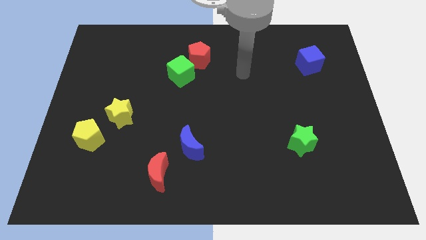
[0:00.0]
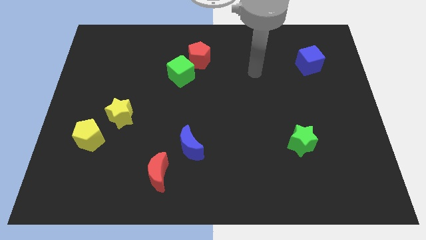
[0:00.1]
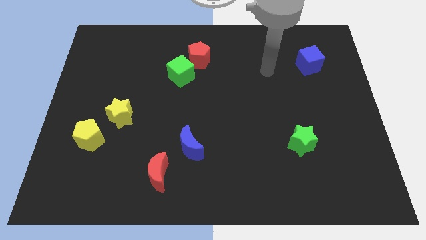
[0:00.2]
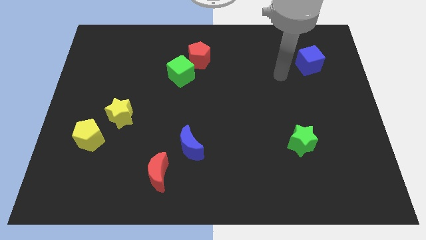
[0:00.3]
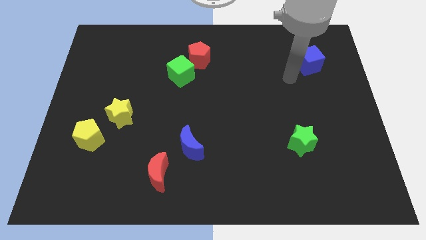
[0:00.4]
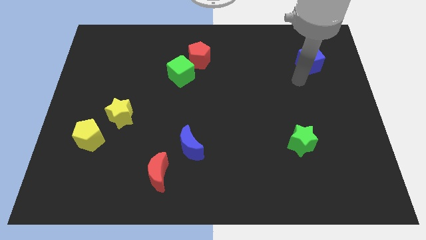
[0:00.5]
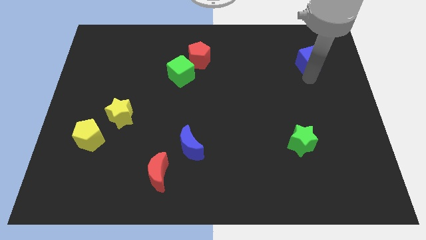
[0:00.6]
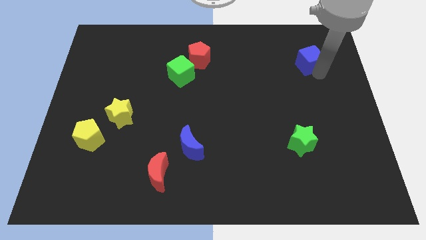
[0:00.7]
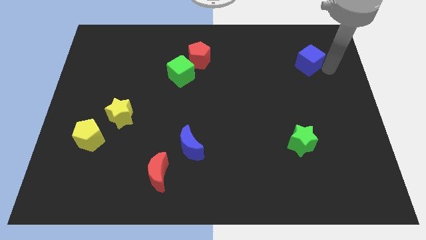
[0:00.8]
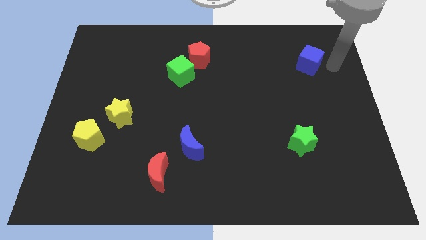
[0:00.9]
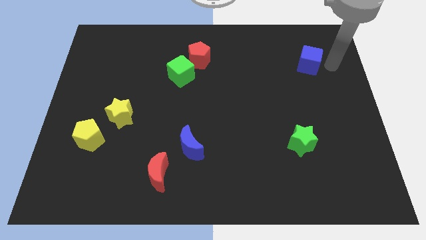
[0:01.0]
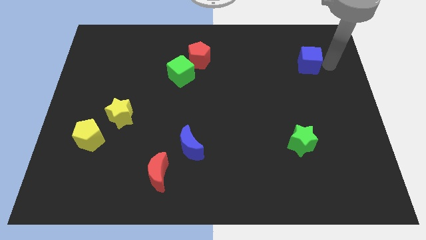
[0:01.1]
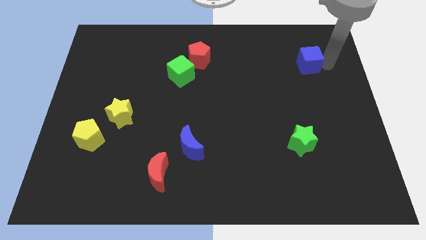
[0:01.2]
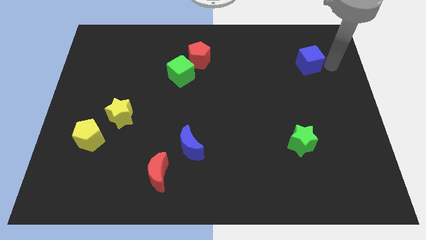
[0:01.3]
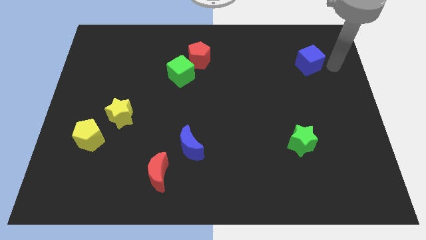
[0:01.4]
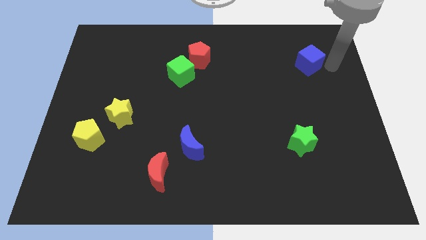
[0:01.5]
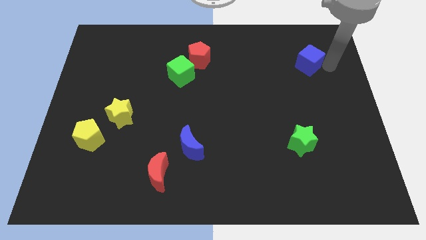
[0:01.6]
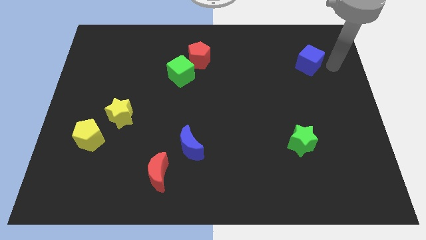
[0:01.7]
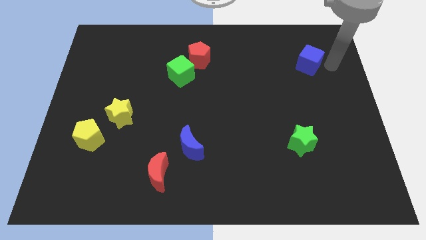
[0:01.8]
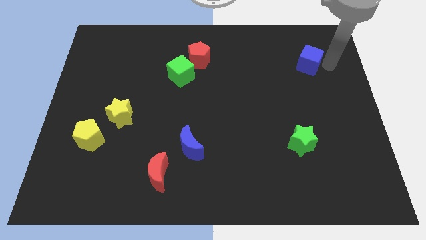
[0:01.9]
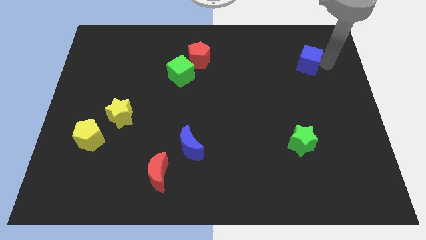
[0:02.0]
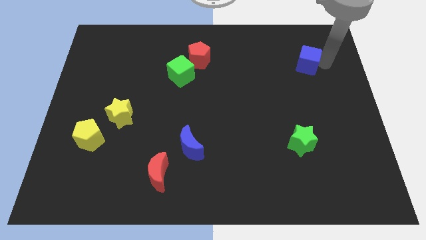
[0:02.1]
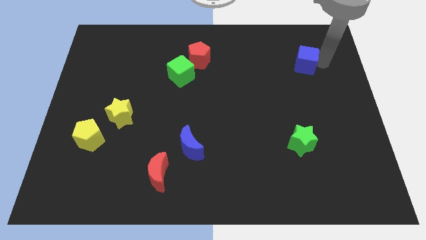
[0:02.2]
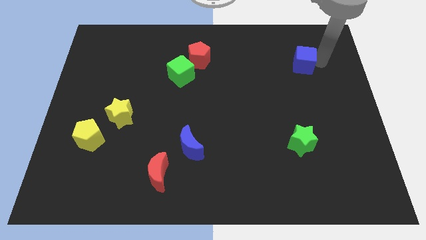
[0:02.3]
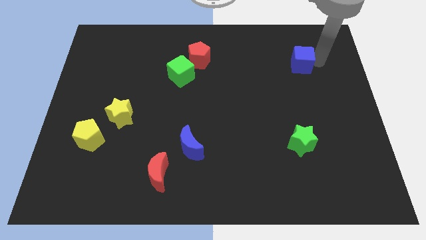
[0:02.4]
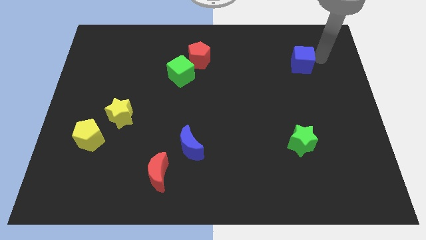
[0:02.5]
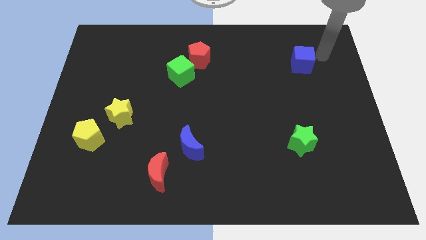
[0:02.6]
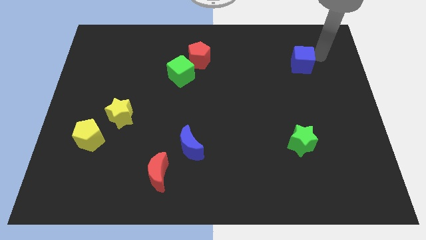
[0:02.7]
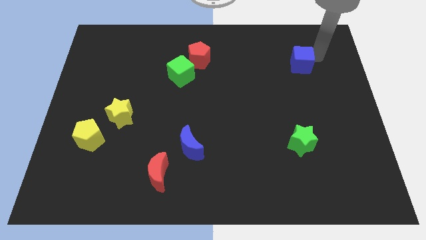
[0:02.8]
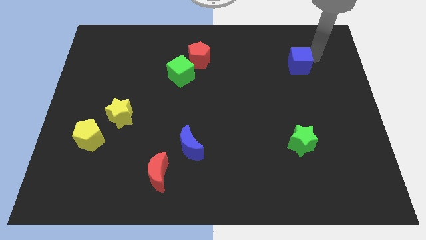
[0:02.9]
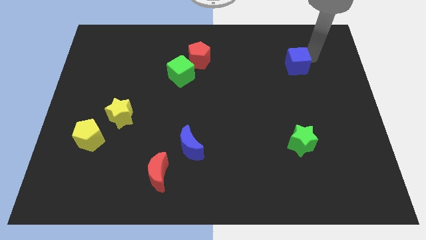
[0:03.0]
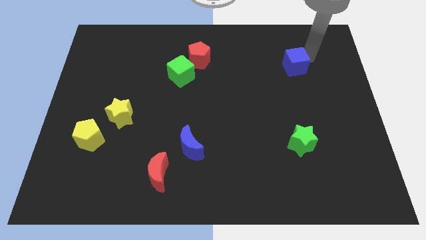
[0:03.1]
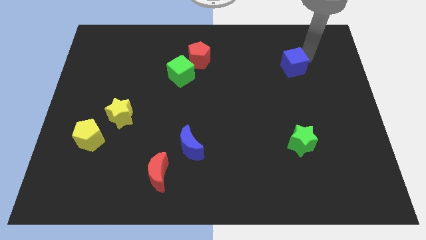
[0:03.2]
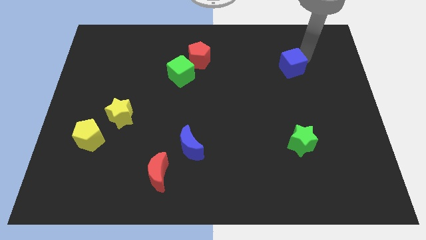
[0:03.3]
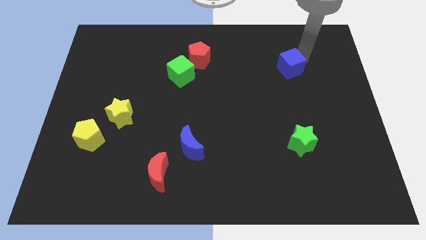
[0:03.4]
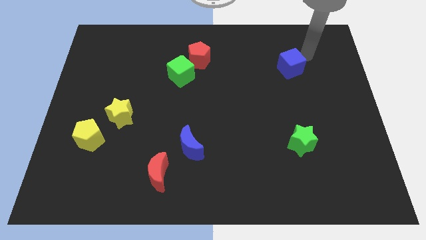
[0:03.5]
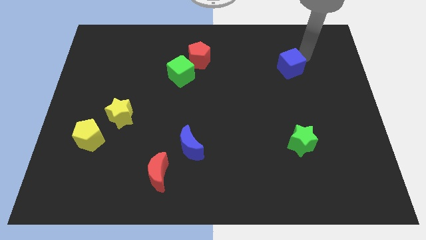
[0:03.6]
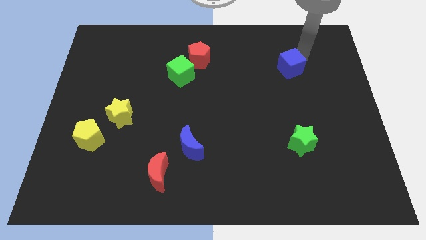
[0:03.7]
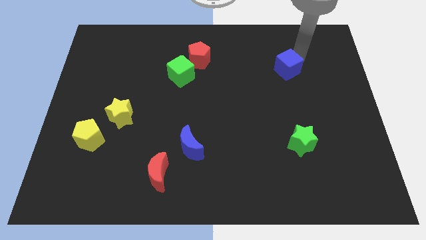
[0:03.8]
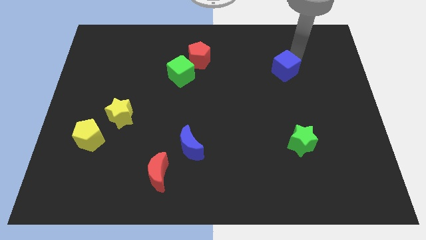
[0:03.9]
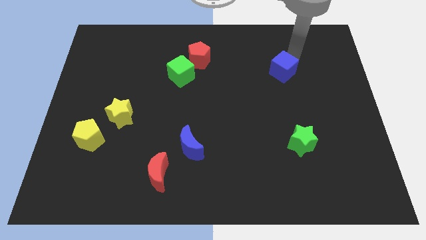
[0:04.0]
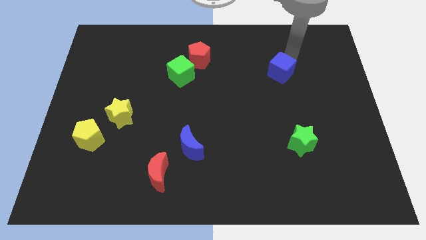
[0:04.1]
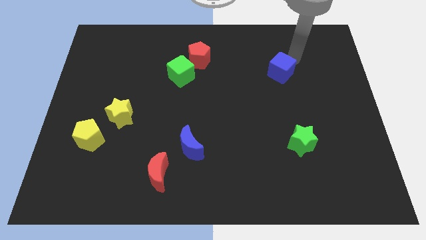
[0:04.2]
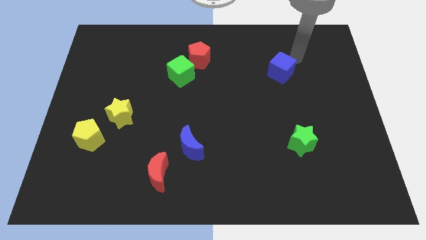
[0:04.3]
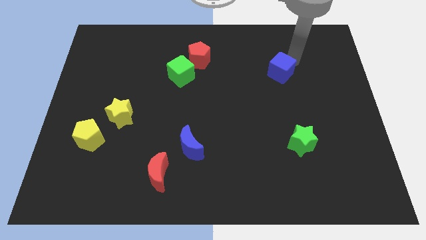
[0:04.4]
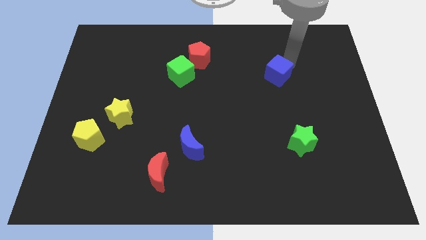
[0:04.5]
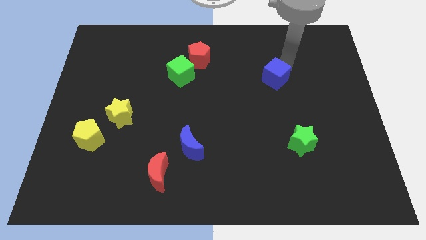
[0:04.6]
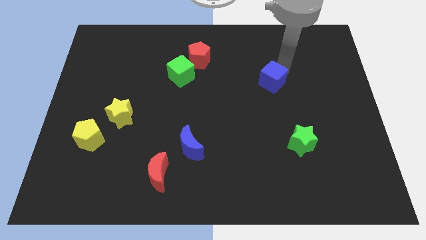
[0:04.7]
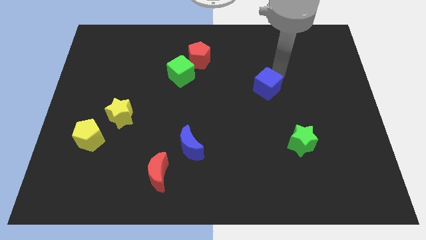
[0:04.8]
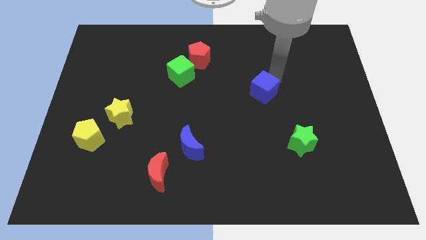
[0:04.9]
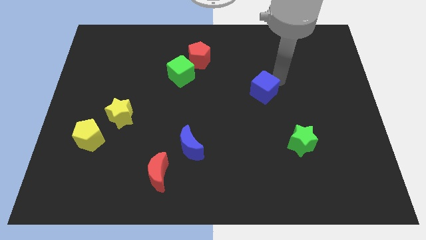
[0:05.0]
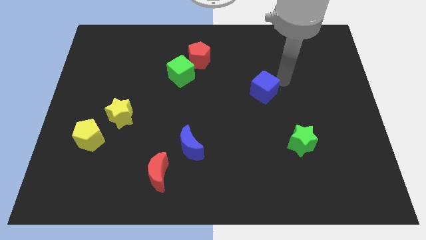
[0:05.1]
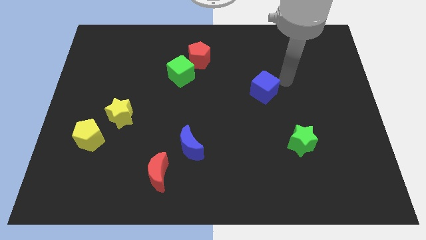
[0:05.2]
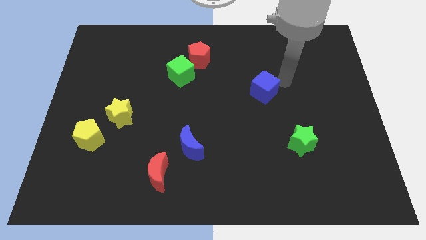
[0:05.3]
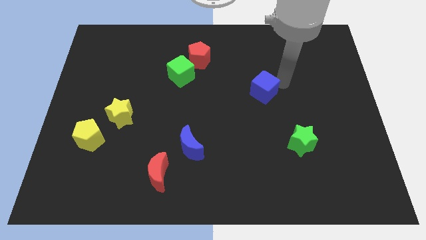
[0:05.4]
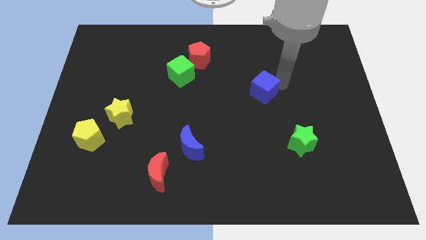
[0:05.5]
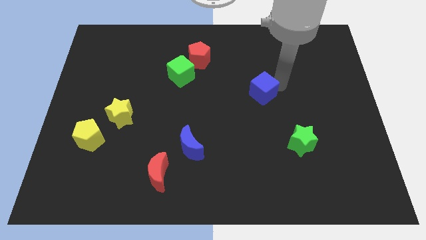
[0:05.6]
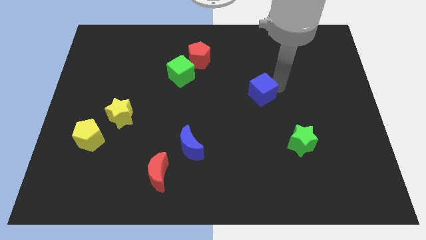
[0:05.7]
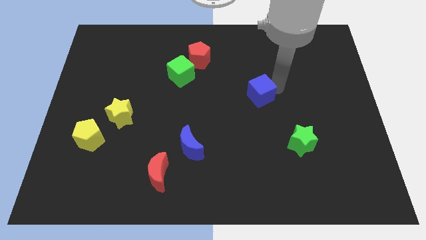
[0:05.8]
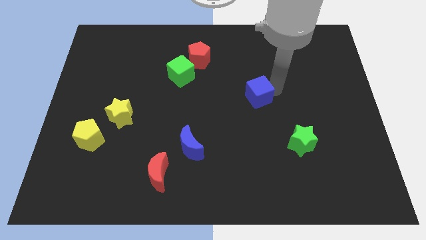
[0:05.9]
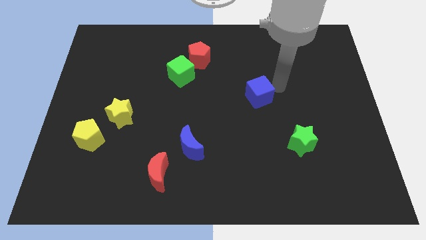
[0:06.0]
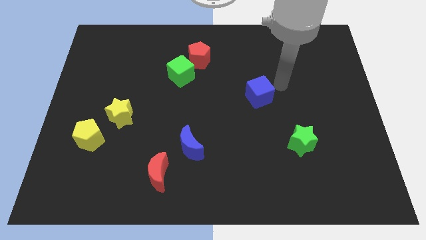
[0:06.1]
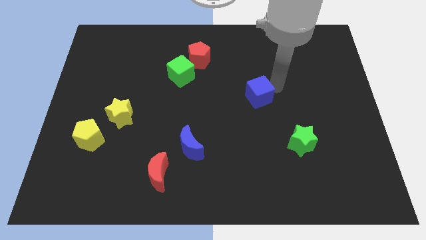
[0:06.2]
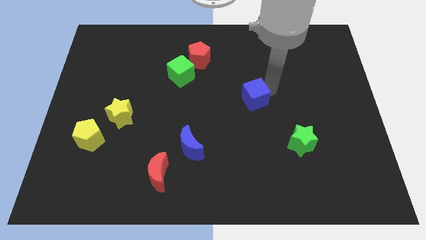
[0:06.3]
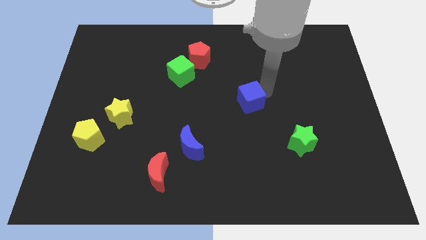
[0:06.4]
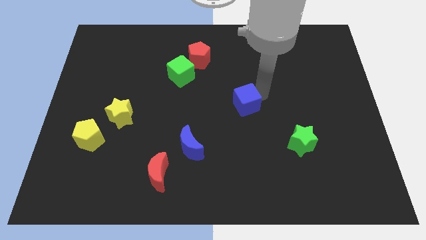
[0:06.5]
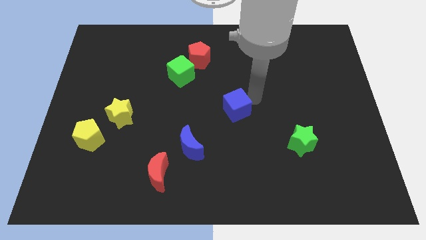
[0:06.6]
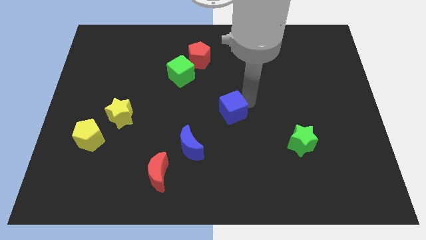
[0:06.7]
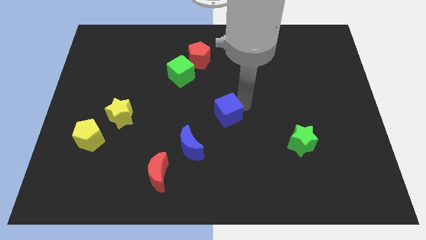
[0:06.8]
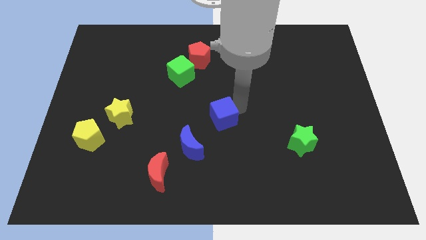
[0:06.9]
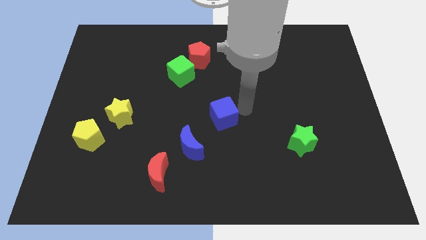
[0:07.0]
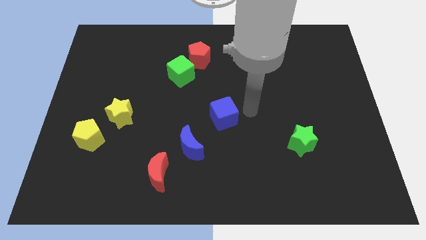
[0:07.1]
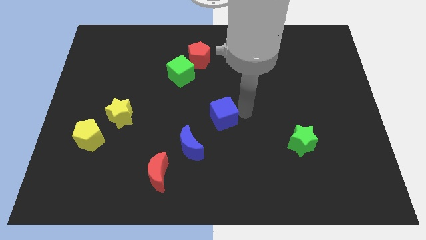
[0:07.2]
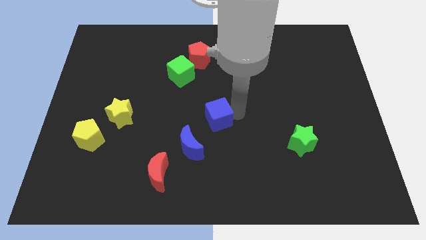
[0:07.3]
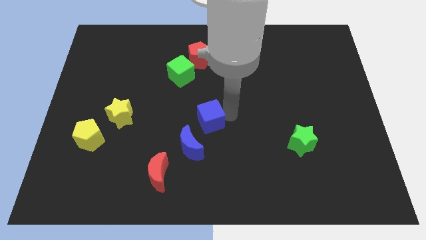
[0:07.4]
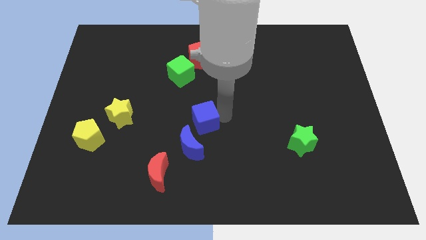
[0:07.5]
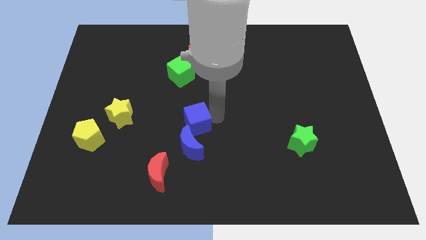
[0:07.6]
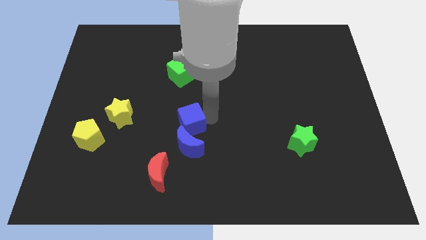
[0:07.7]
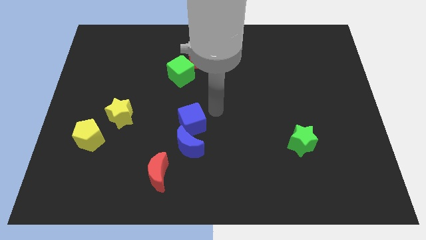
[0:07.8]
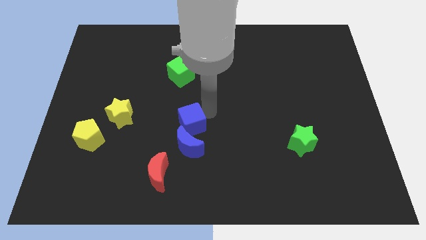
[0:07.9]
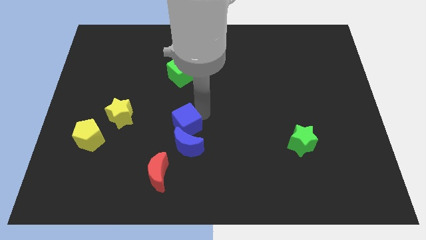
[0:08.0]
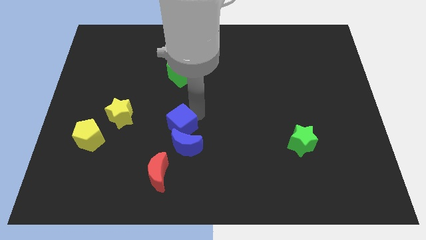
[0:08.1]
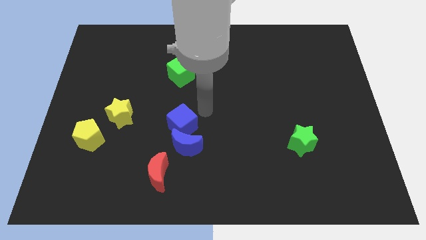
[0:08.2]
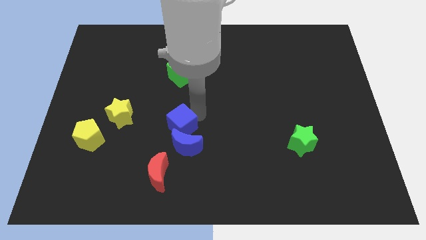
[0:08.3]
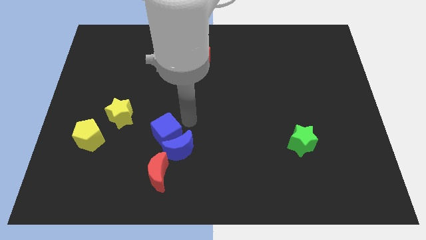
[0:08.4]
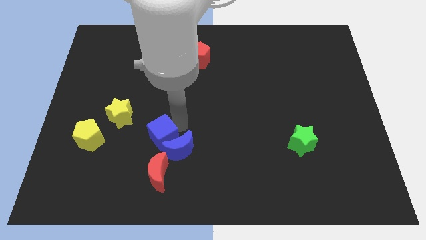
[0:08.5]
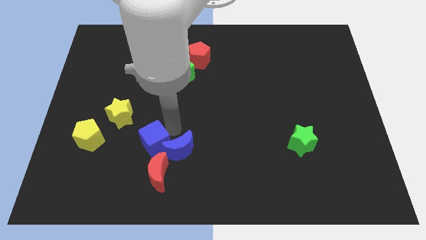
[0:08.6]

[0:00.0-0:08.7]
slide the blue cube to the top left of the red moon
